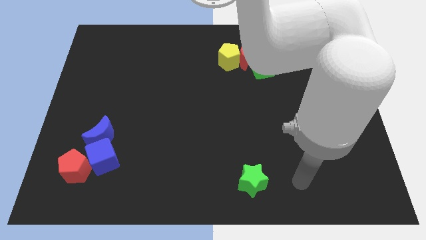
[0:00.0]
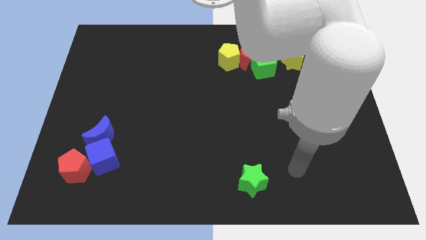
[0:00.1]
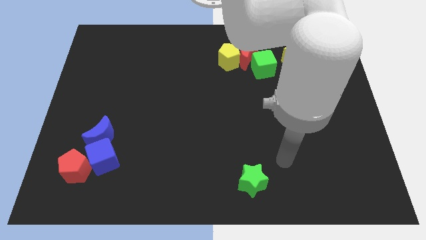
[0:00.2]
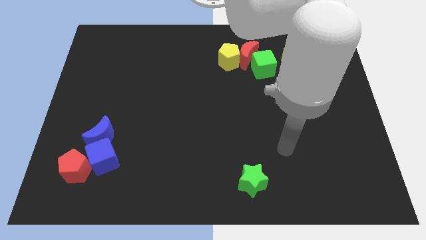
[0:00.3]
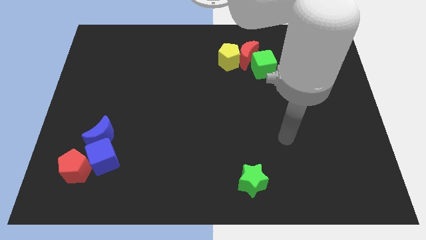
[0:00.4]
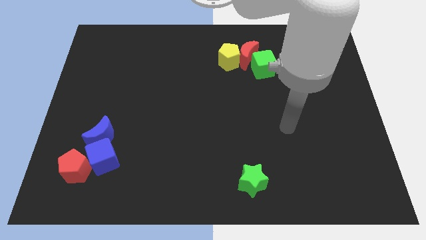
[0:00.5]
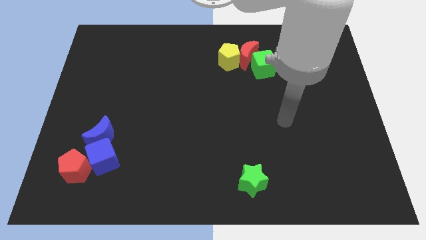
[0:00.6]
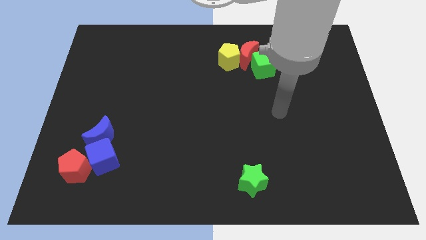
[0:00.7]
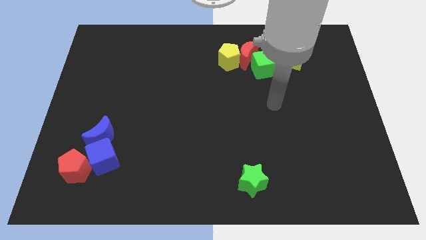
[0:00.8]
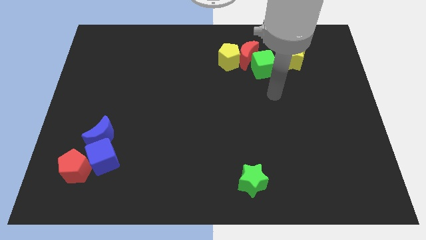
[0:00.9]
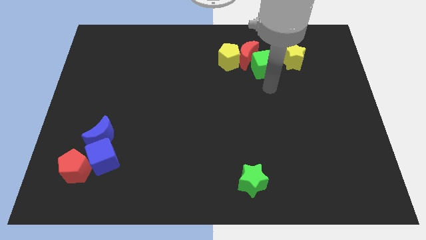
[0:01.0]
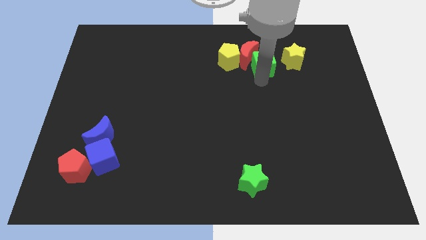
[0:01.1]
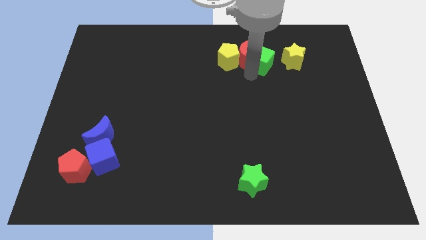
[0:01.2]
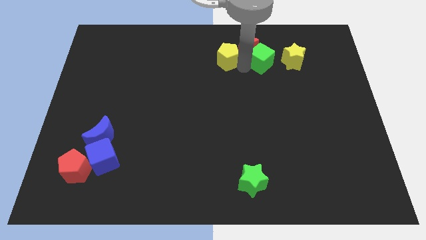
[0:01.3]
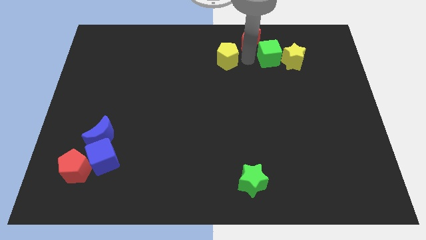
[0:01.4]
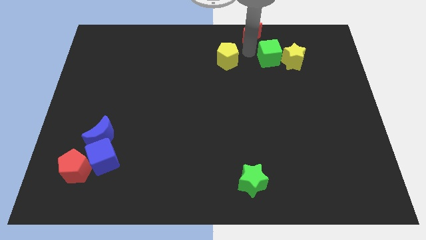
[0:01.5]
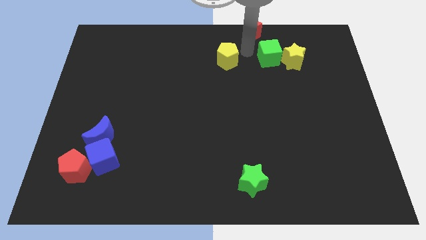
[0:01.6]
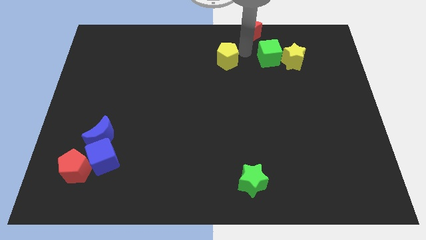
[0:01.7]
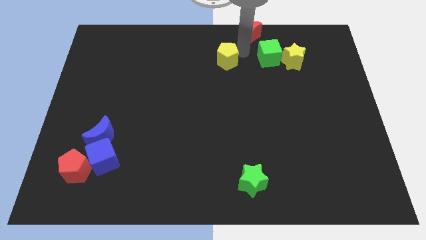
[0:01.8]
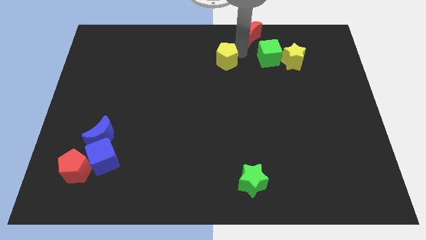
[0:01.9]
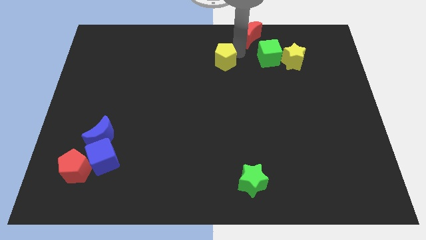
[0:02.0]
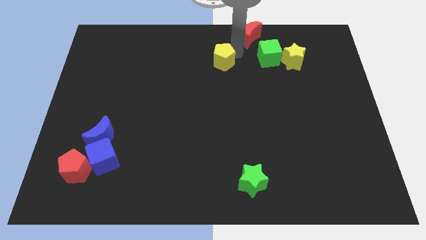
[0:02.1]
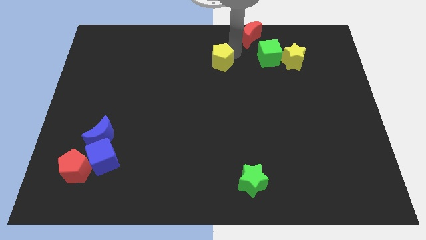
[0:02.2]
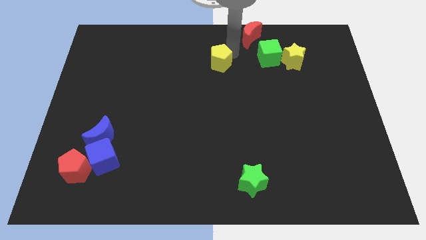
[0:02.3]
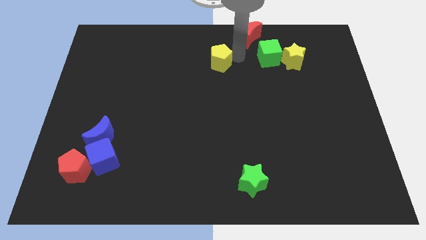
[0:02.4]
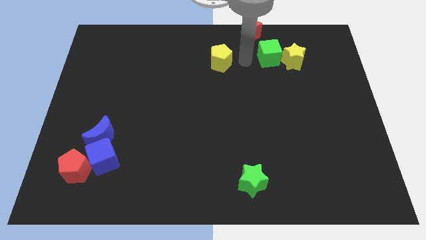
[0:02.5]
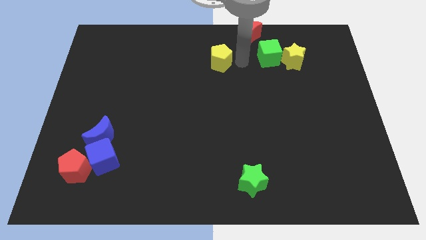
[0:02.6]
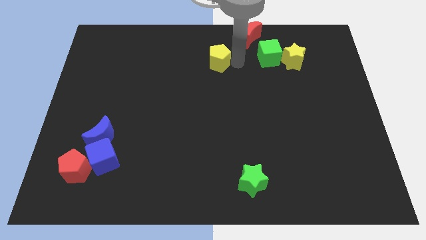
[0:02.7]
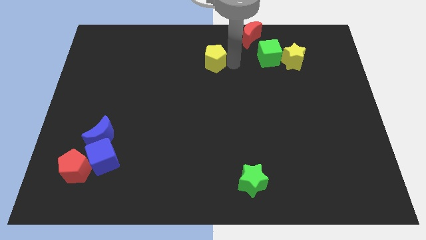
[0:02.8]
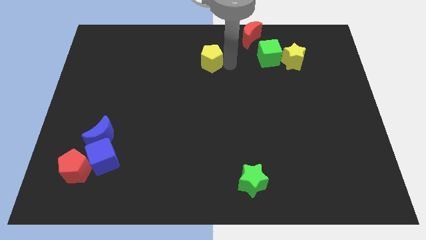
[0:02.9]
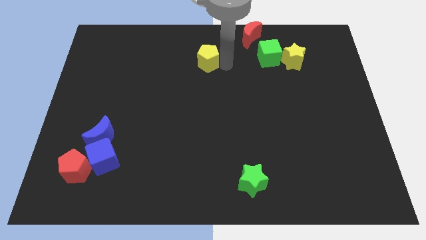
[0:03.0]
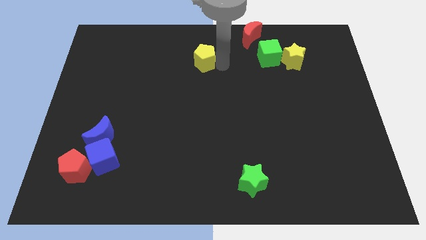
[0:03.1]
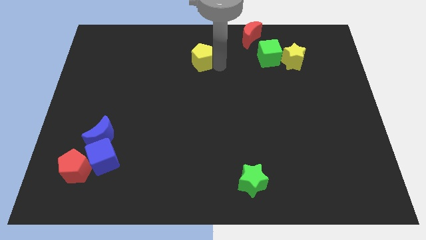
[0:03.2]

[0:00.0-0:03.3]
slide the yellow pentagon a little left

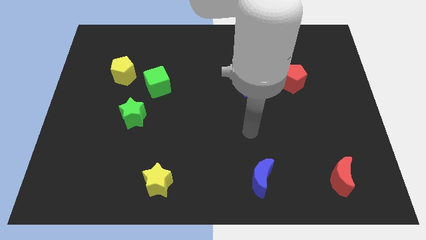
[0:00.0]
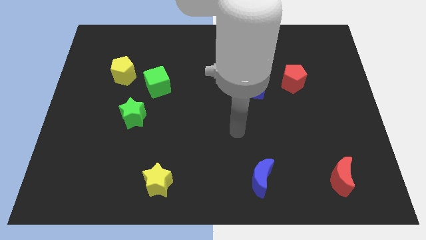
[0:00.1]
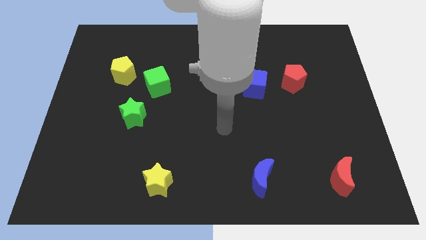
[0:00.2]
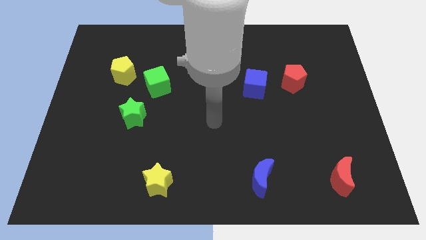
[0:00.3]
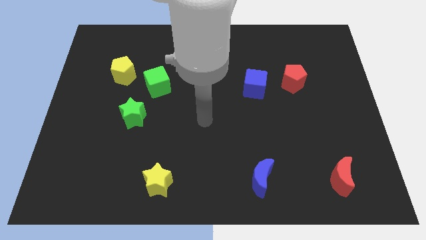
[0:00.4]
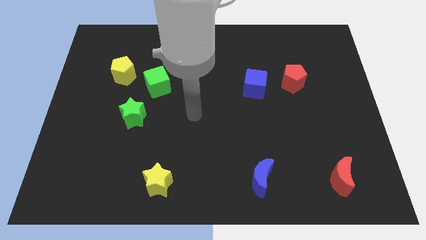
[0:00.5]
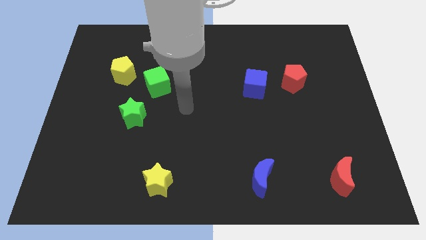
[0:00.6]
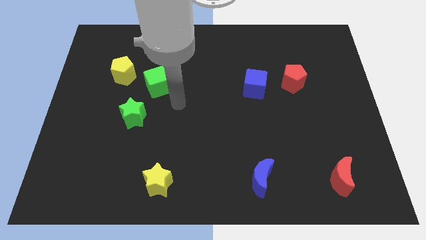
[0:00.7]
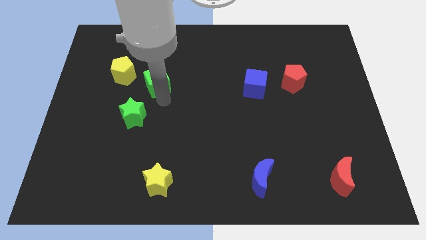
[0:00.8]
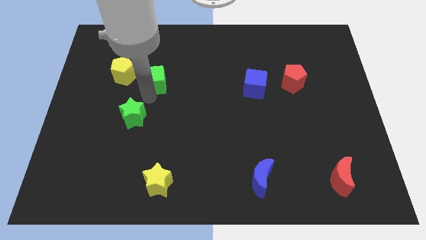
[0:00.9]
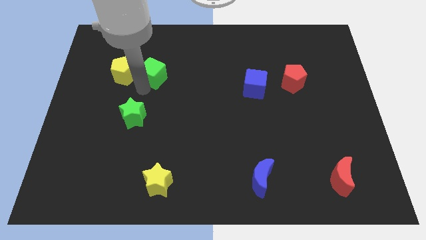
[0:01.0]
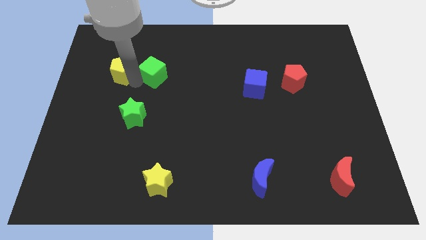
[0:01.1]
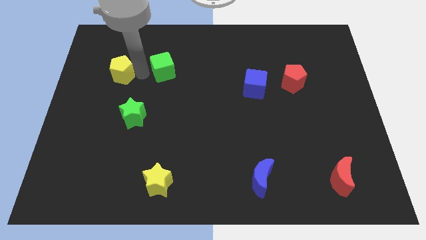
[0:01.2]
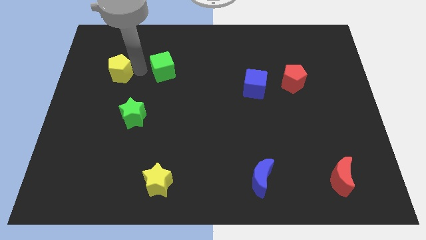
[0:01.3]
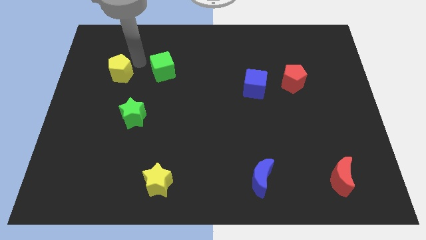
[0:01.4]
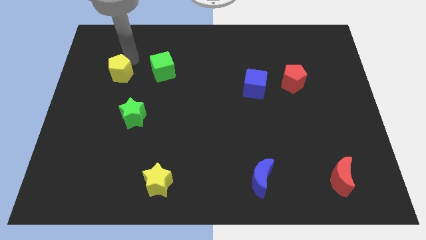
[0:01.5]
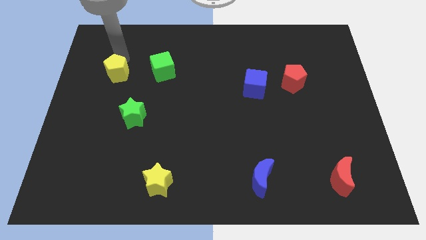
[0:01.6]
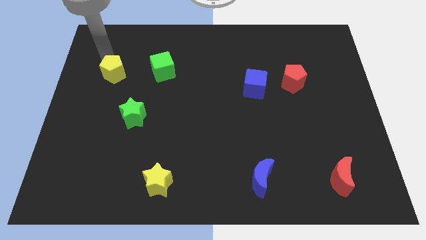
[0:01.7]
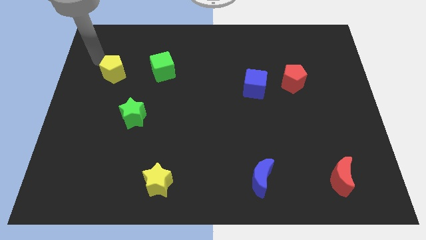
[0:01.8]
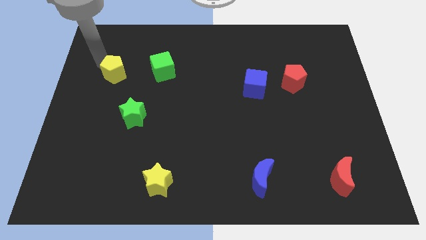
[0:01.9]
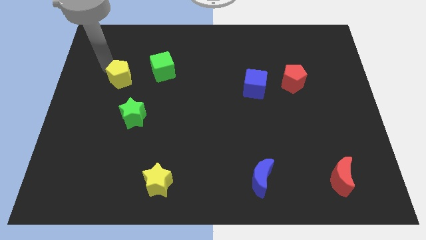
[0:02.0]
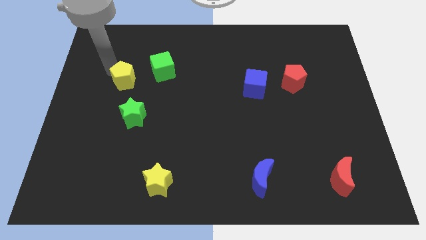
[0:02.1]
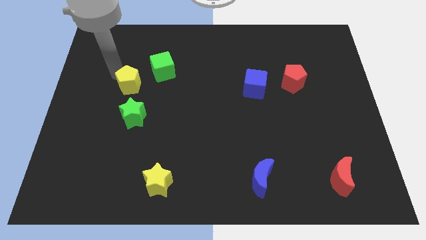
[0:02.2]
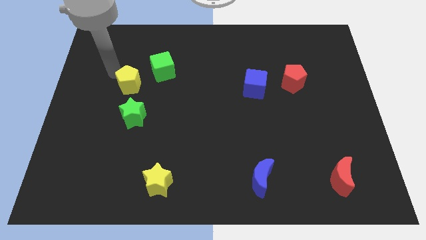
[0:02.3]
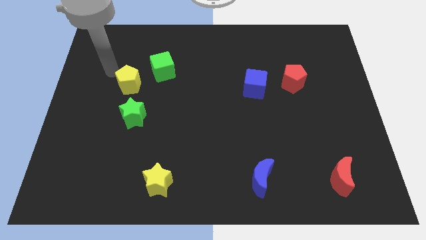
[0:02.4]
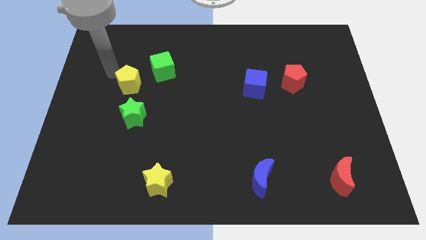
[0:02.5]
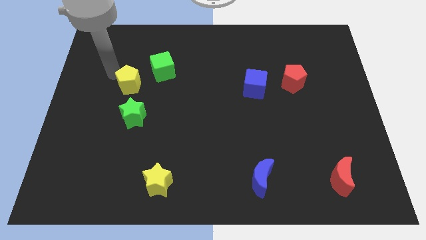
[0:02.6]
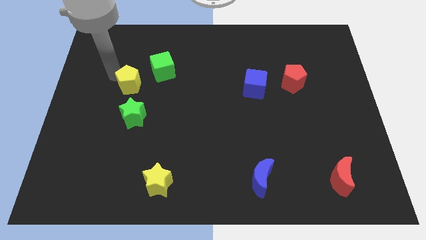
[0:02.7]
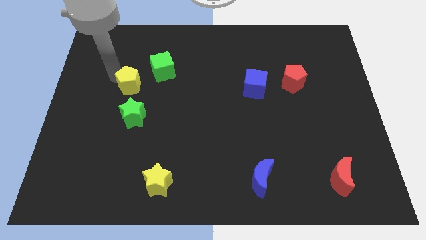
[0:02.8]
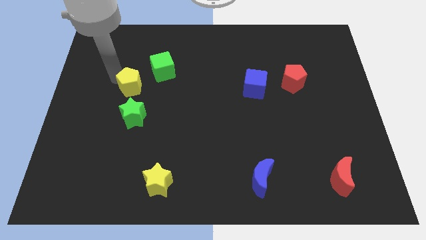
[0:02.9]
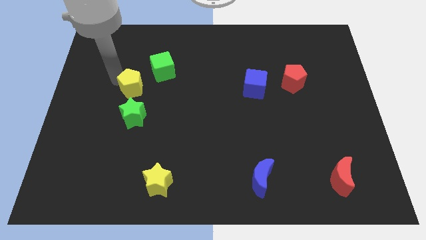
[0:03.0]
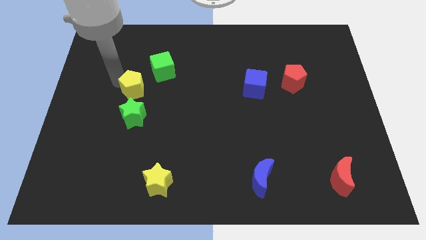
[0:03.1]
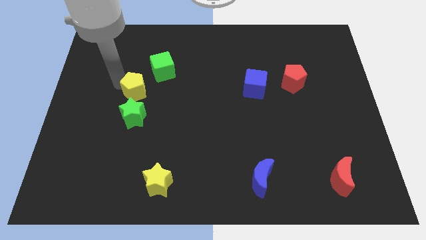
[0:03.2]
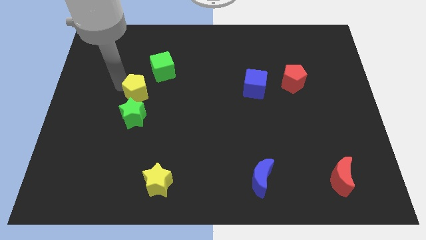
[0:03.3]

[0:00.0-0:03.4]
slightly push the yellow pentagon downwards and then right

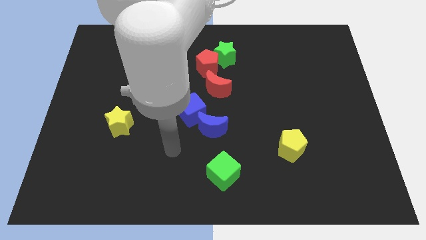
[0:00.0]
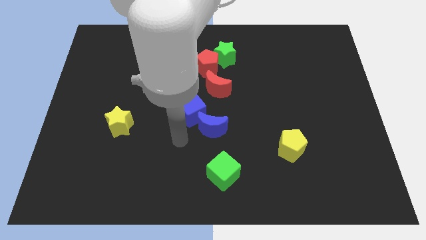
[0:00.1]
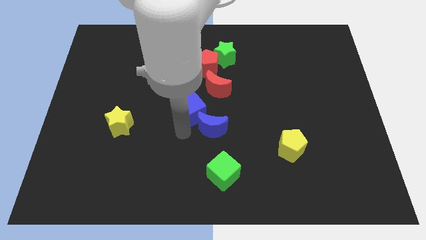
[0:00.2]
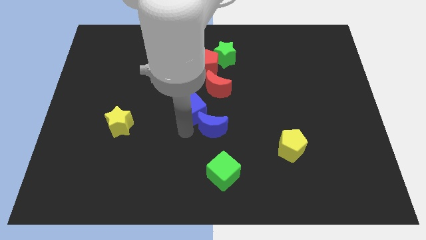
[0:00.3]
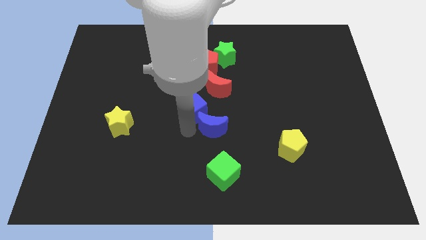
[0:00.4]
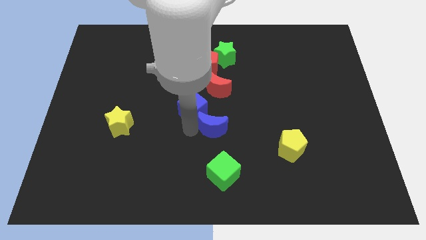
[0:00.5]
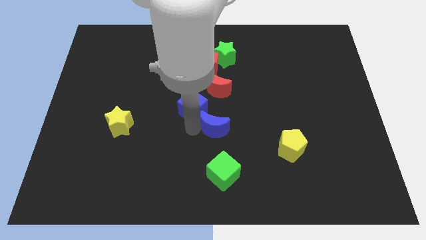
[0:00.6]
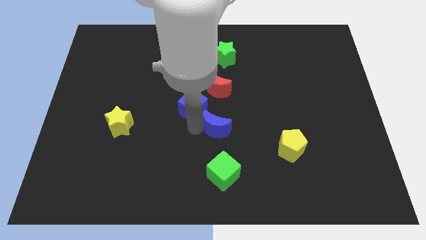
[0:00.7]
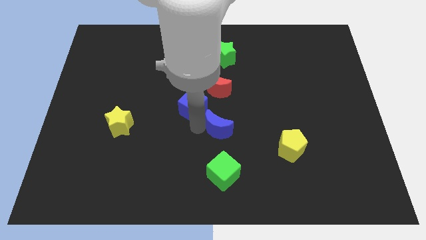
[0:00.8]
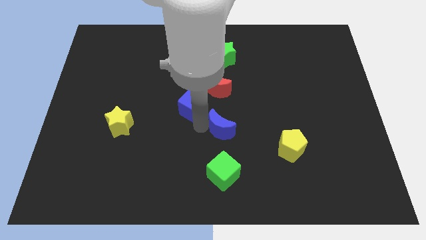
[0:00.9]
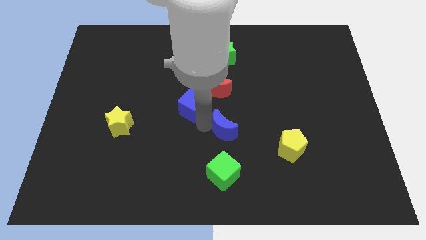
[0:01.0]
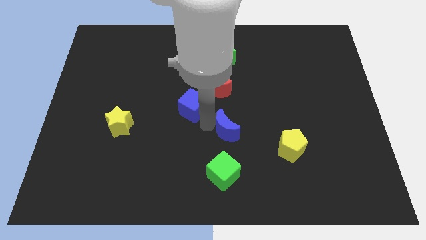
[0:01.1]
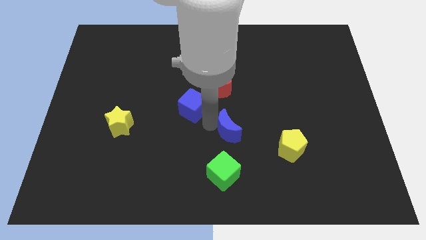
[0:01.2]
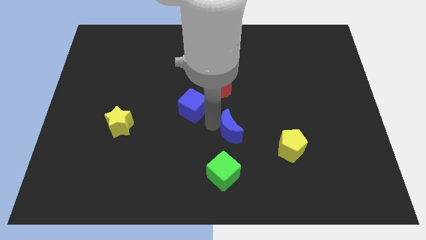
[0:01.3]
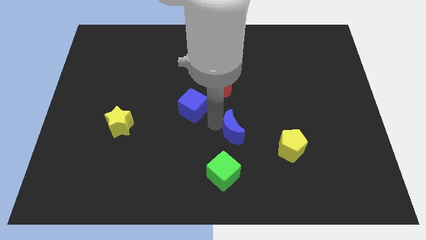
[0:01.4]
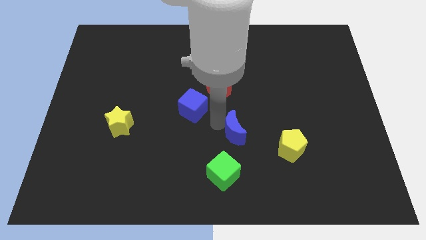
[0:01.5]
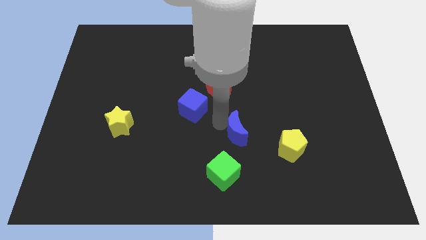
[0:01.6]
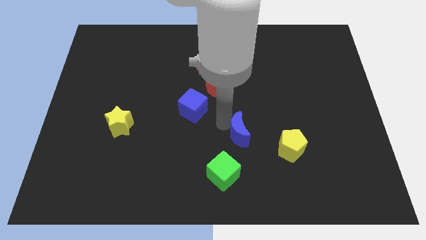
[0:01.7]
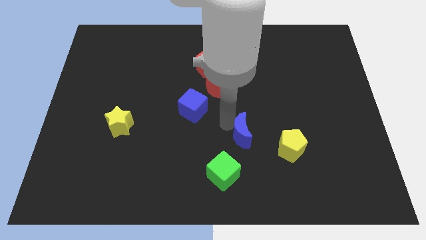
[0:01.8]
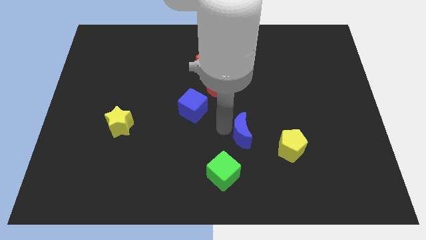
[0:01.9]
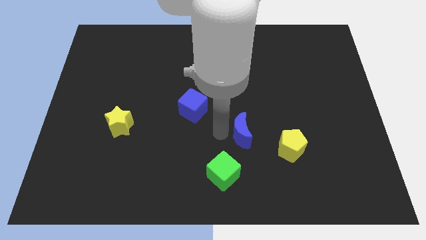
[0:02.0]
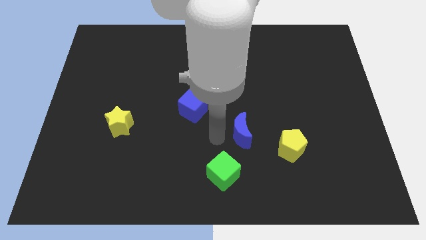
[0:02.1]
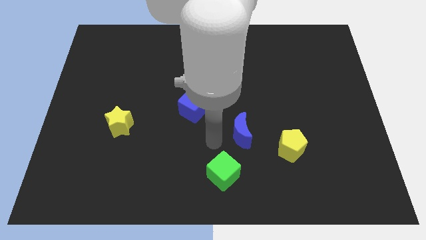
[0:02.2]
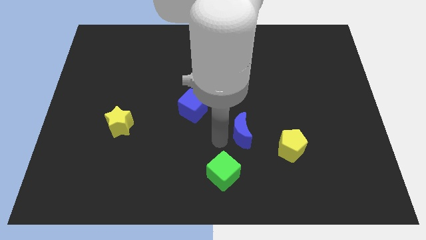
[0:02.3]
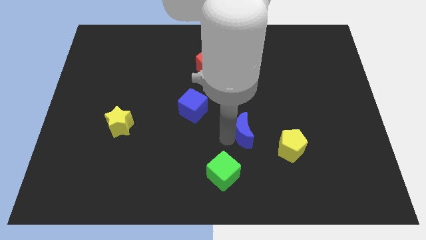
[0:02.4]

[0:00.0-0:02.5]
move the blue moon a bit right
